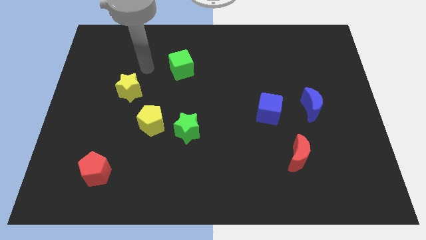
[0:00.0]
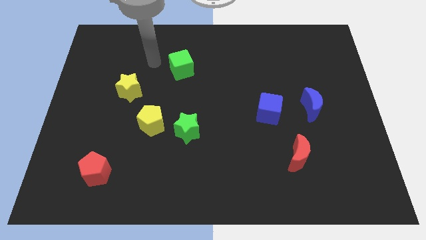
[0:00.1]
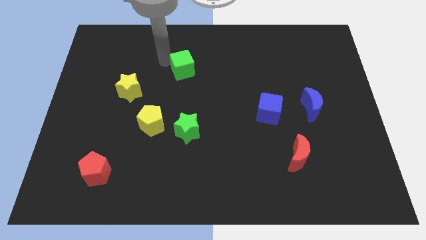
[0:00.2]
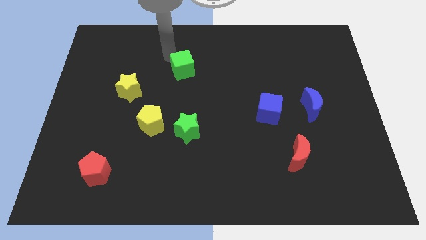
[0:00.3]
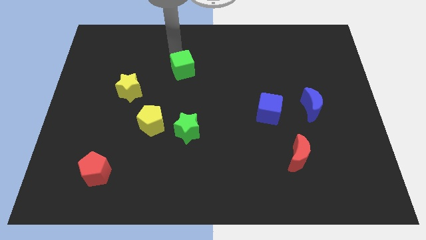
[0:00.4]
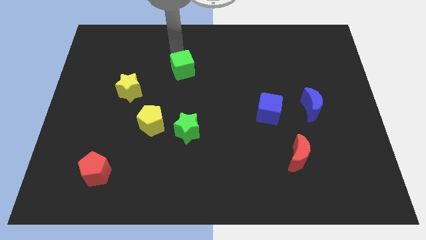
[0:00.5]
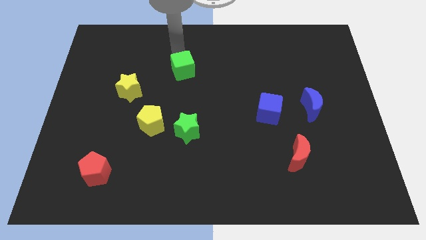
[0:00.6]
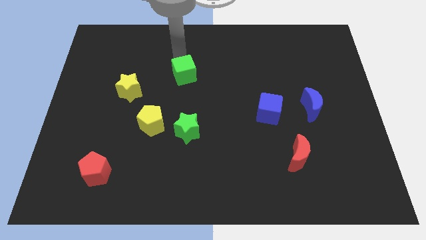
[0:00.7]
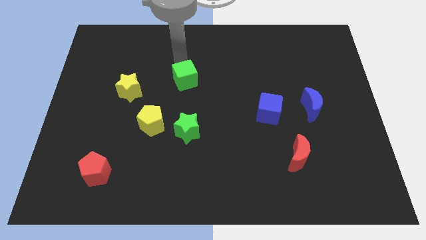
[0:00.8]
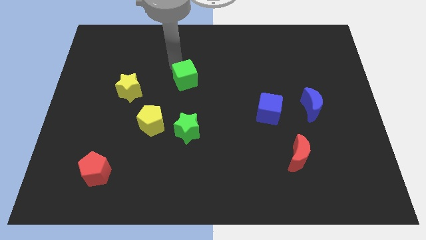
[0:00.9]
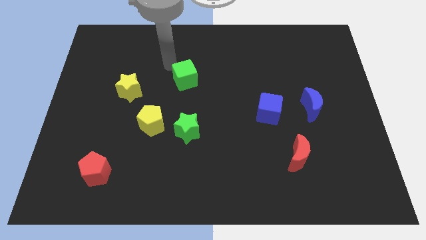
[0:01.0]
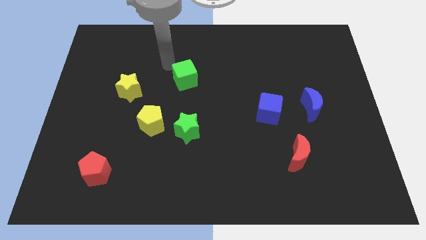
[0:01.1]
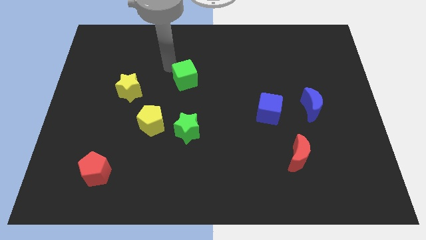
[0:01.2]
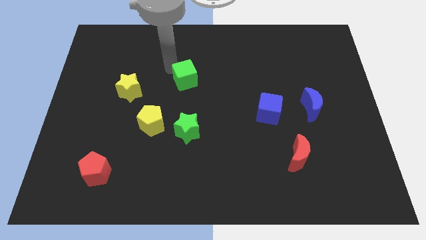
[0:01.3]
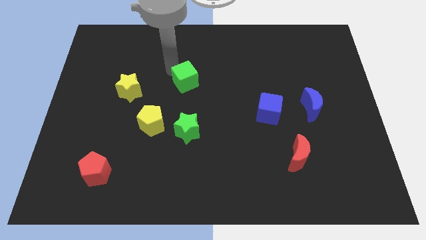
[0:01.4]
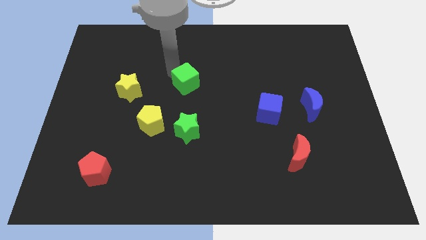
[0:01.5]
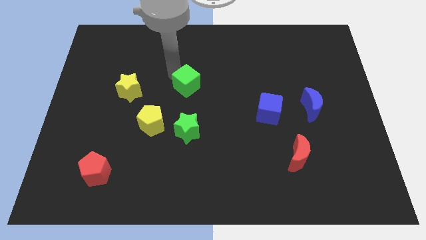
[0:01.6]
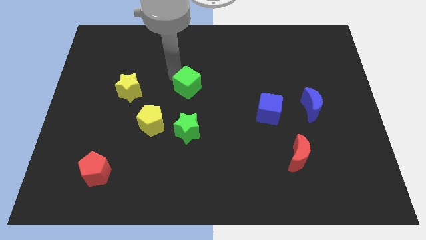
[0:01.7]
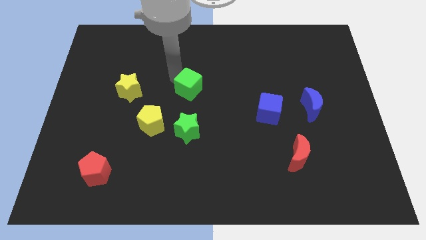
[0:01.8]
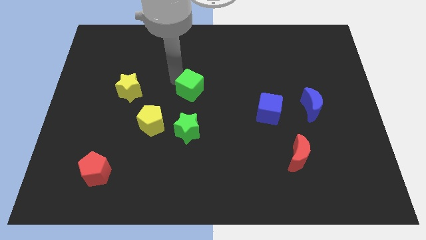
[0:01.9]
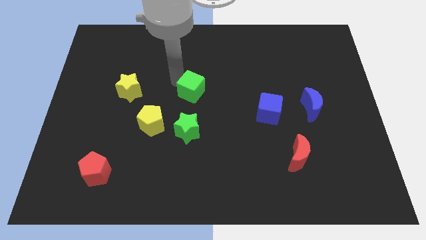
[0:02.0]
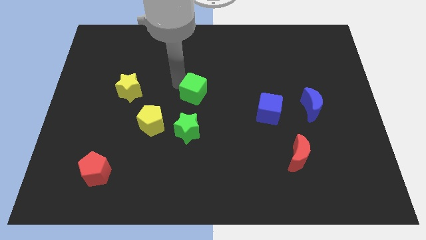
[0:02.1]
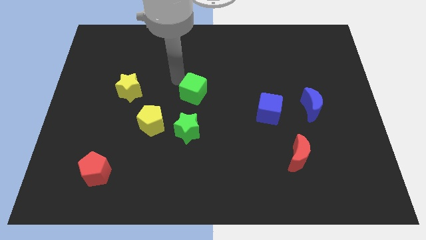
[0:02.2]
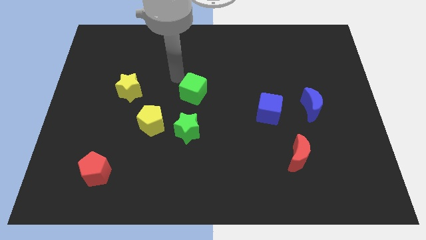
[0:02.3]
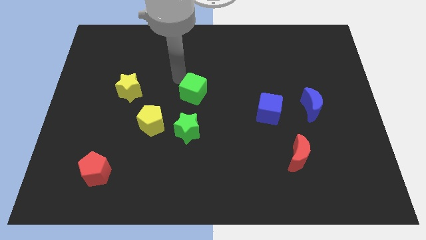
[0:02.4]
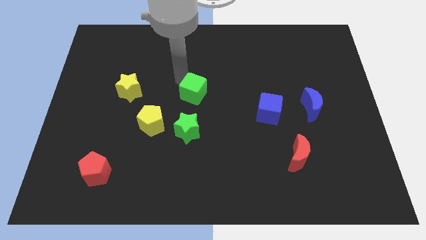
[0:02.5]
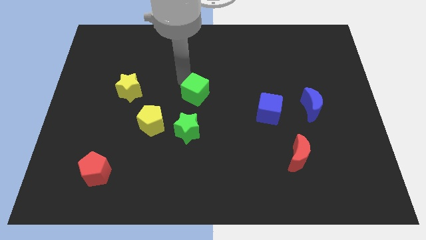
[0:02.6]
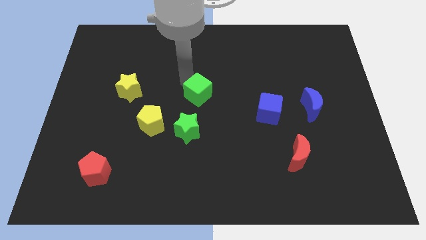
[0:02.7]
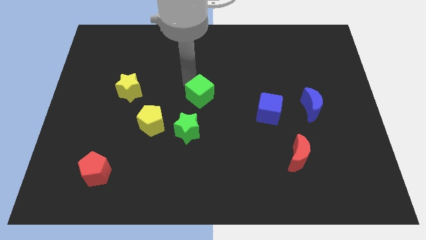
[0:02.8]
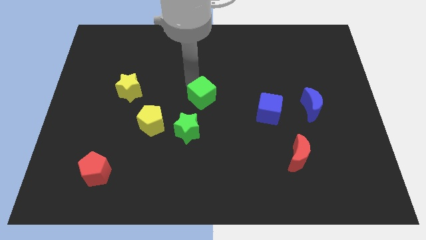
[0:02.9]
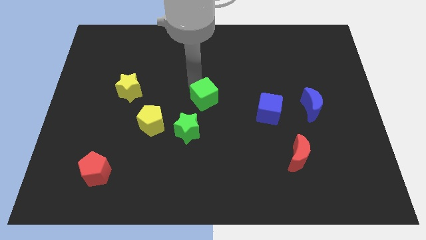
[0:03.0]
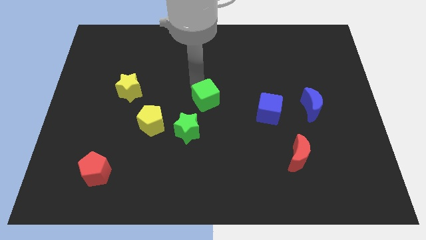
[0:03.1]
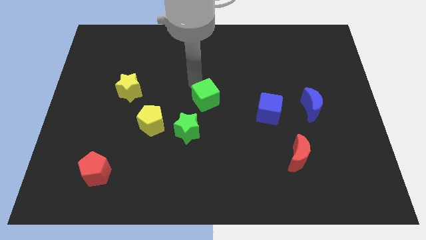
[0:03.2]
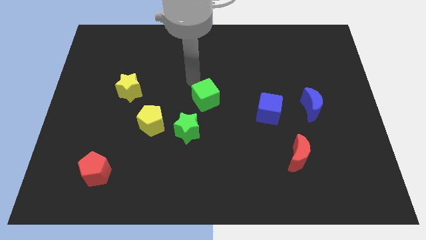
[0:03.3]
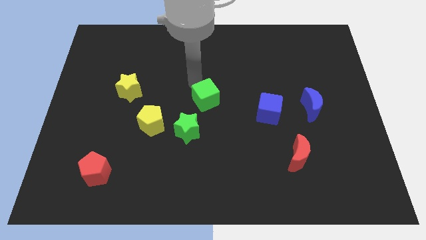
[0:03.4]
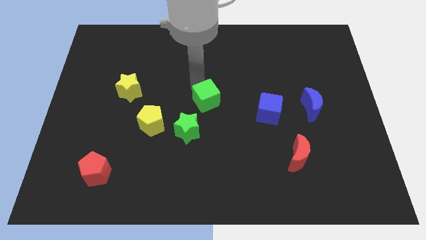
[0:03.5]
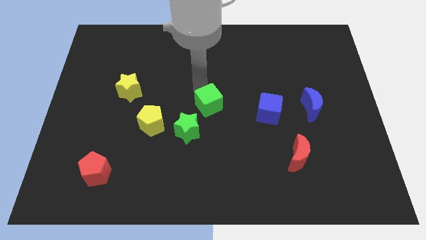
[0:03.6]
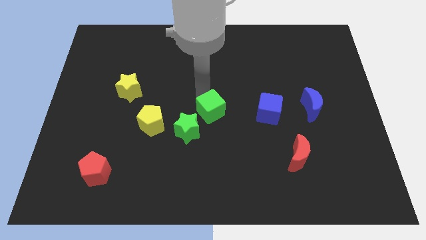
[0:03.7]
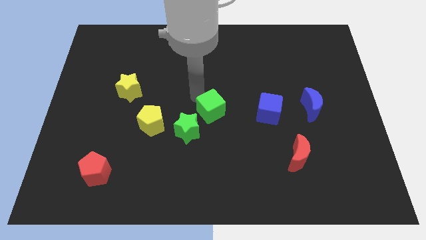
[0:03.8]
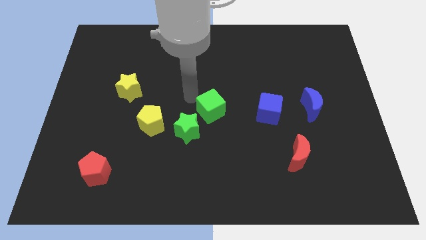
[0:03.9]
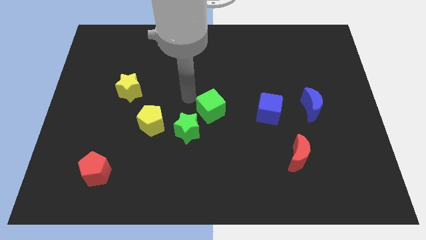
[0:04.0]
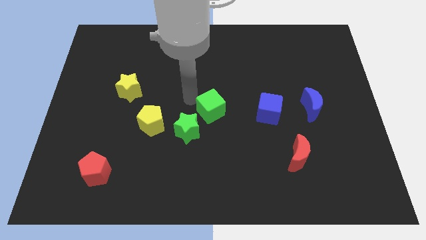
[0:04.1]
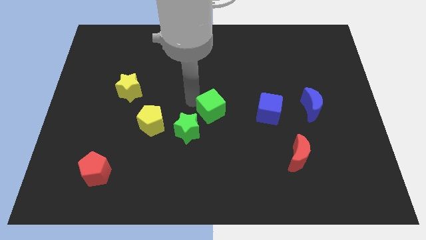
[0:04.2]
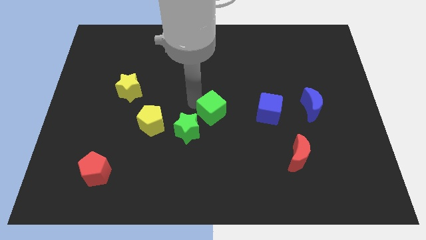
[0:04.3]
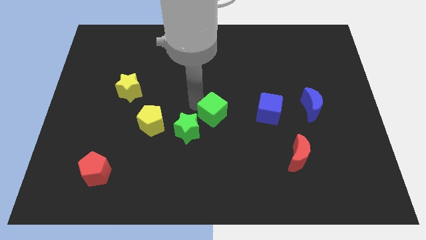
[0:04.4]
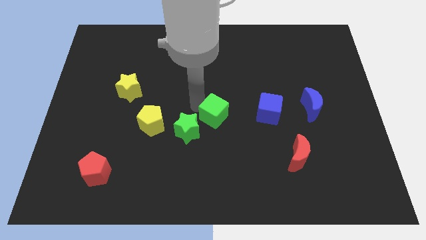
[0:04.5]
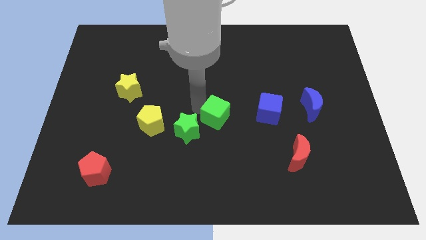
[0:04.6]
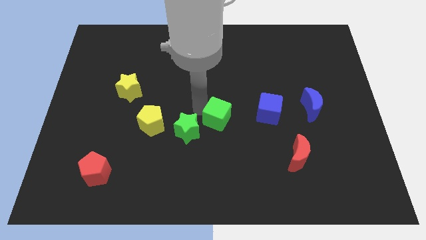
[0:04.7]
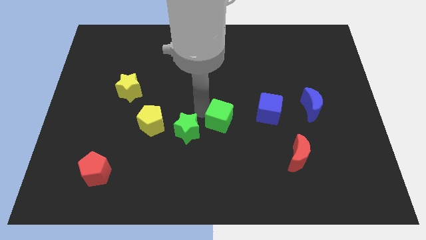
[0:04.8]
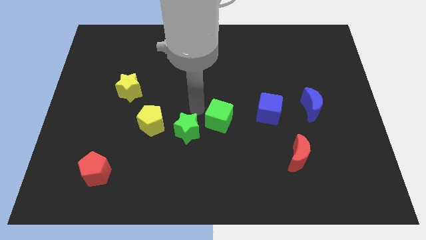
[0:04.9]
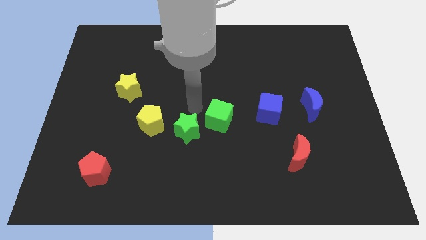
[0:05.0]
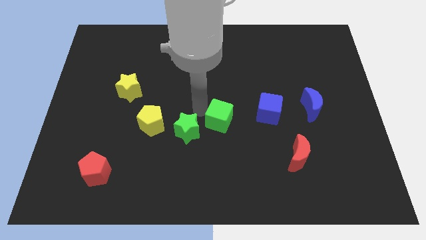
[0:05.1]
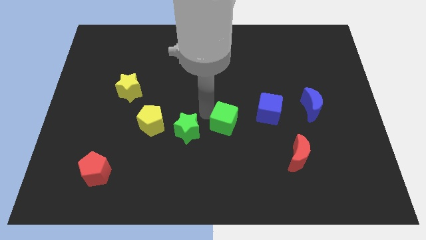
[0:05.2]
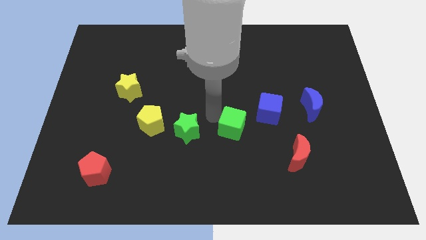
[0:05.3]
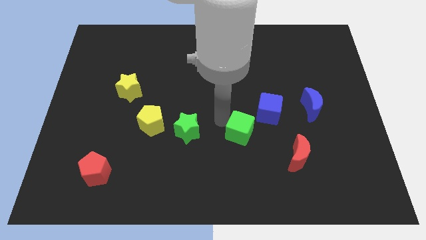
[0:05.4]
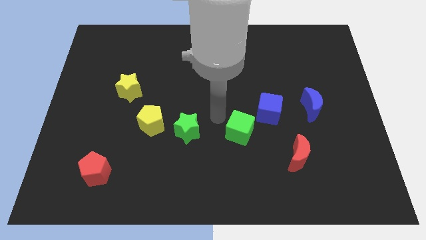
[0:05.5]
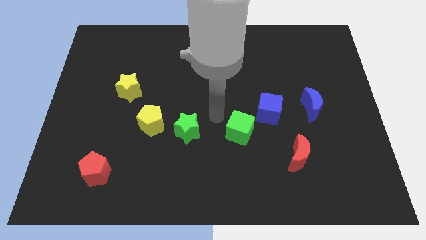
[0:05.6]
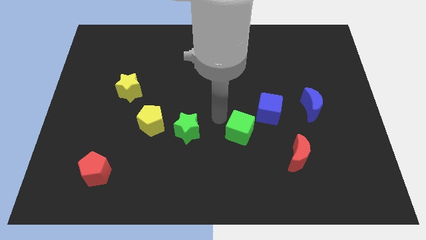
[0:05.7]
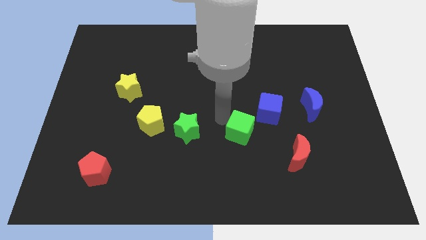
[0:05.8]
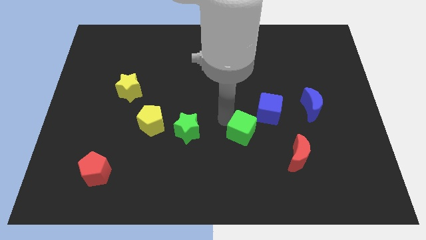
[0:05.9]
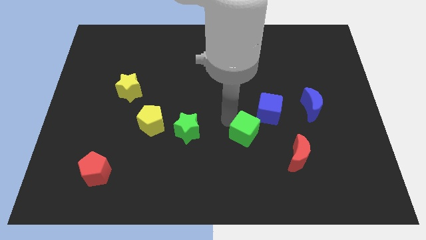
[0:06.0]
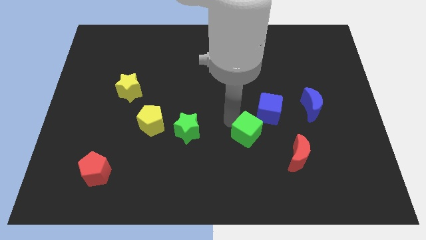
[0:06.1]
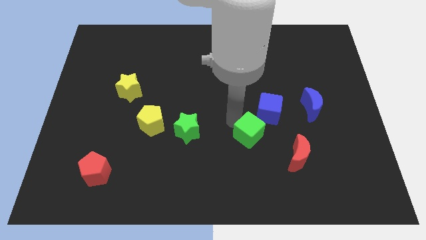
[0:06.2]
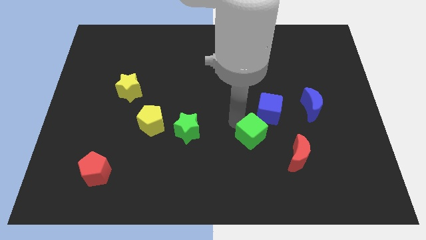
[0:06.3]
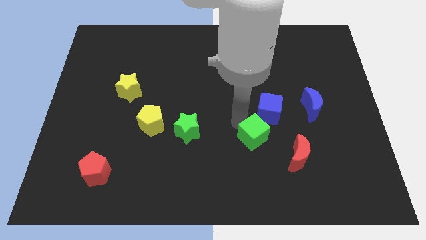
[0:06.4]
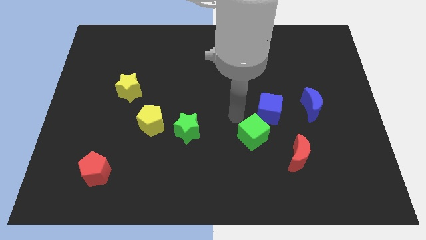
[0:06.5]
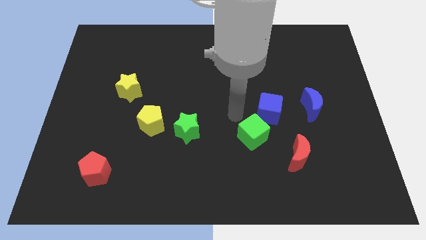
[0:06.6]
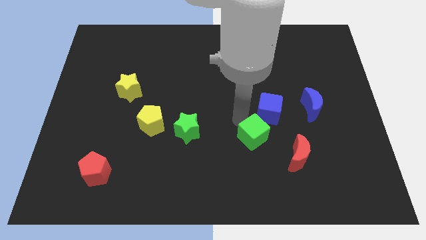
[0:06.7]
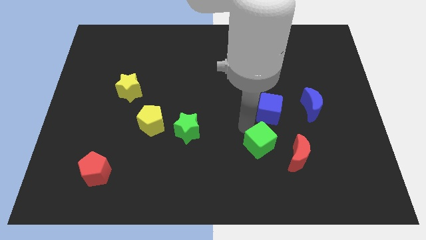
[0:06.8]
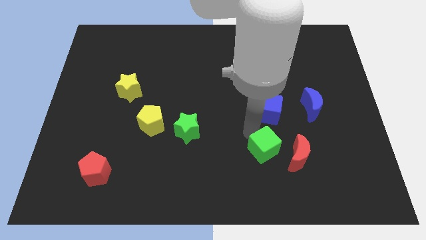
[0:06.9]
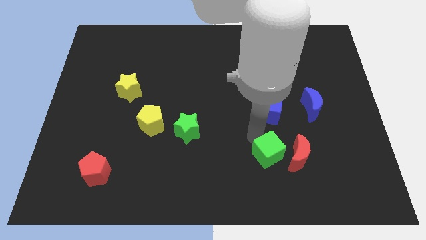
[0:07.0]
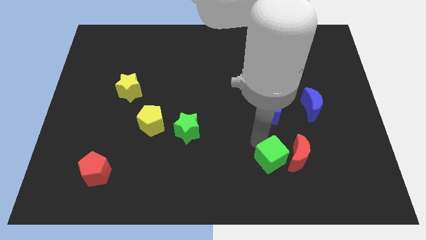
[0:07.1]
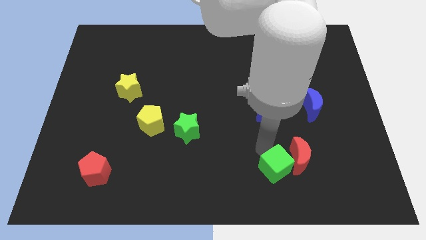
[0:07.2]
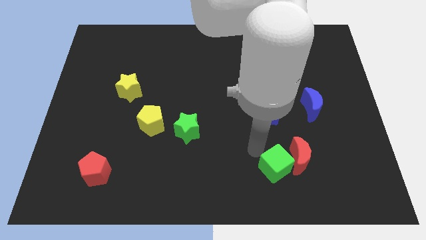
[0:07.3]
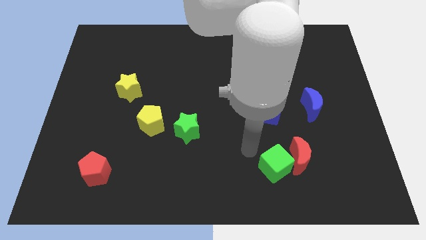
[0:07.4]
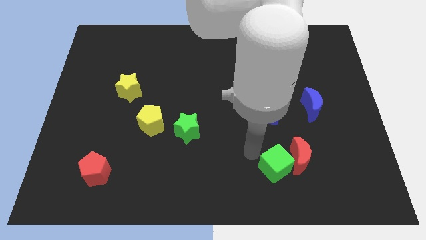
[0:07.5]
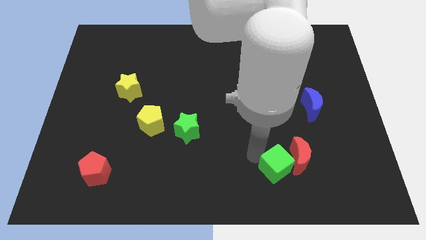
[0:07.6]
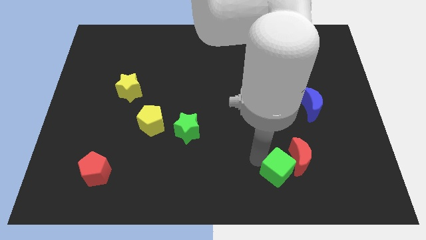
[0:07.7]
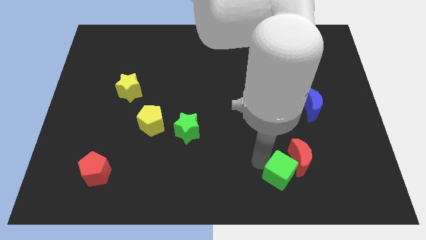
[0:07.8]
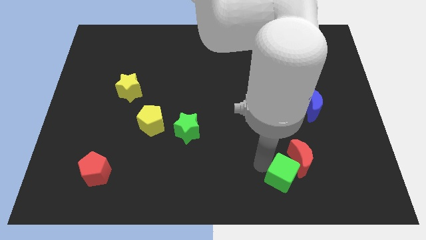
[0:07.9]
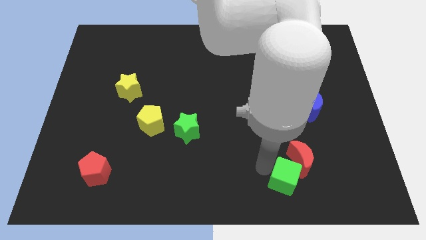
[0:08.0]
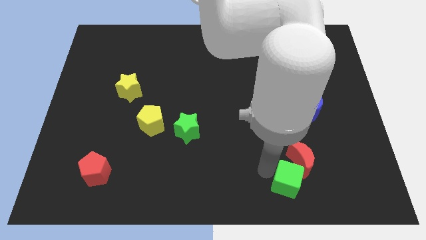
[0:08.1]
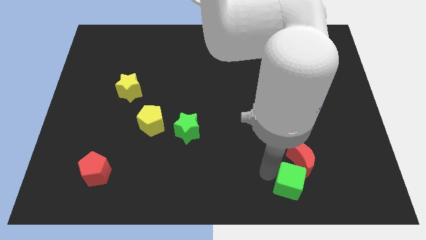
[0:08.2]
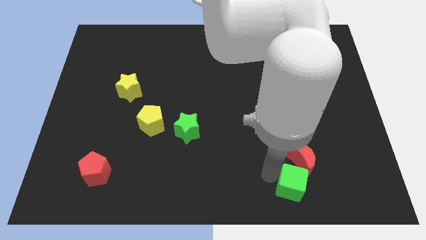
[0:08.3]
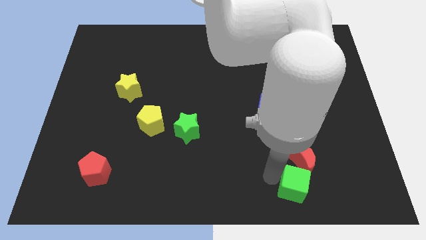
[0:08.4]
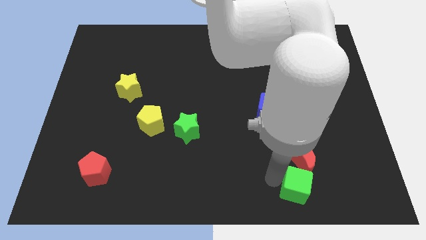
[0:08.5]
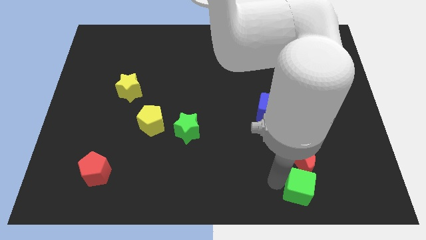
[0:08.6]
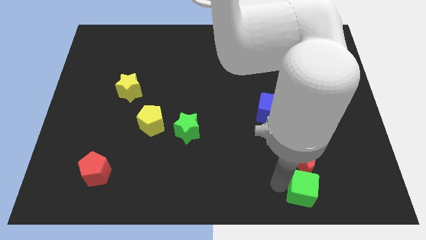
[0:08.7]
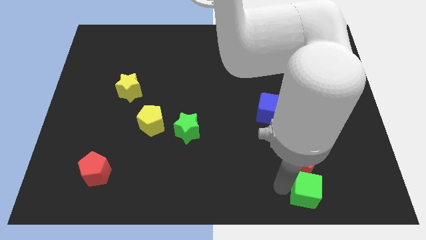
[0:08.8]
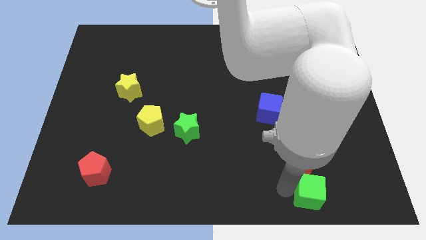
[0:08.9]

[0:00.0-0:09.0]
put the green cube to the bottom right of the red moon
